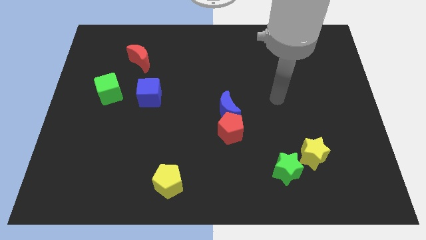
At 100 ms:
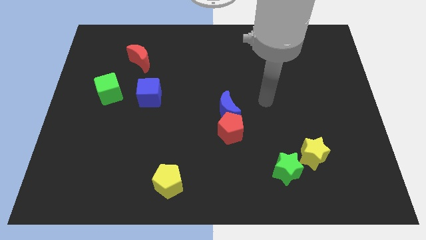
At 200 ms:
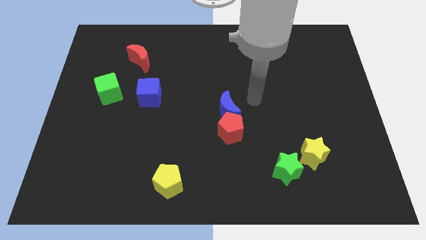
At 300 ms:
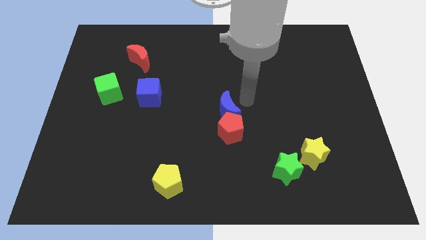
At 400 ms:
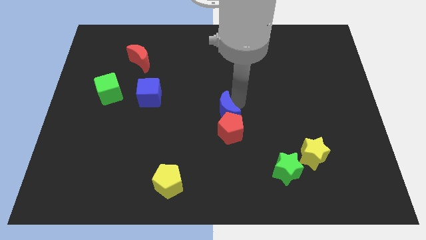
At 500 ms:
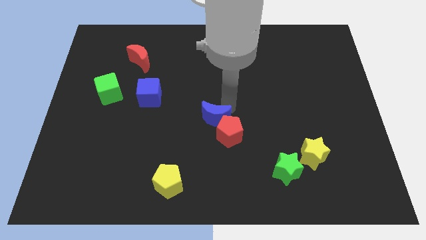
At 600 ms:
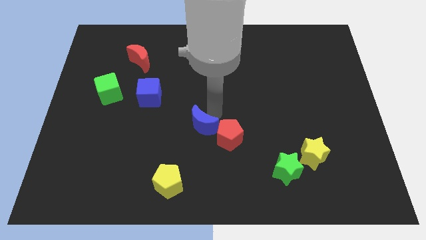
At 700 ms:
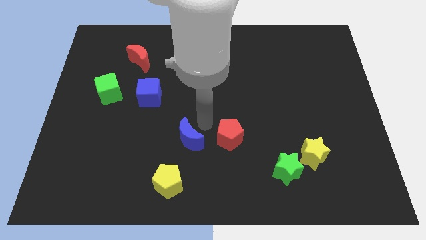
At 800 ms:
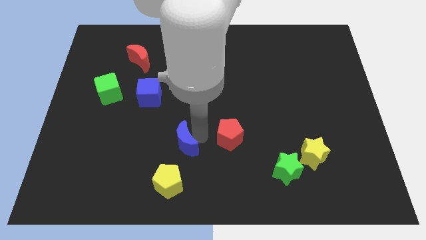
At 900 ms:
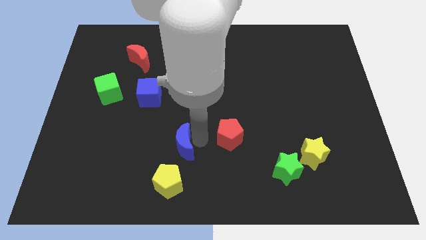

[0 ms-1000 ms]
pull the red pentagon apart from the blue moon

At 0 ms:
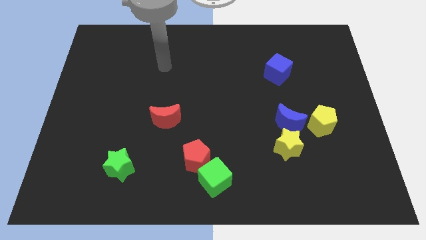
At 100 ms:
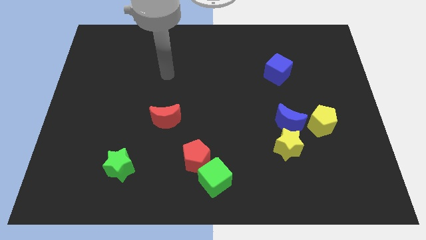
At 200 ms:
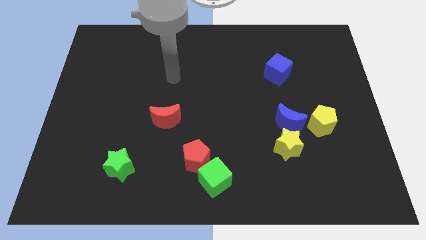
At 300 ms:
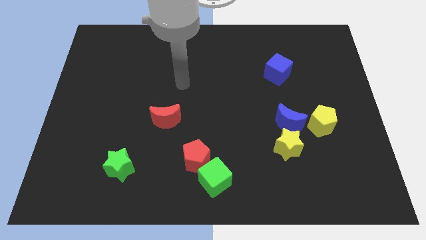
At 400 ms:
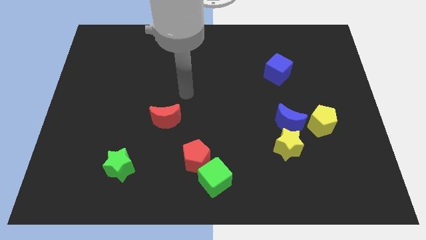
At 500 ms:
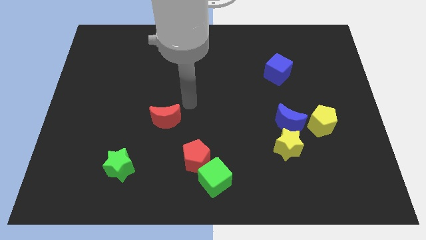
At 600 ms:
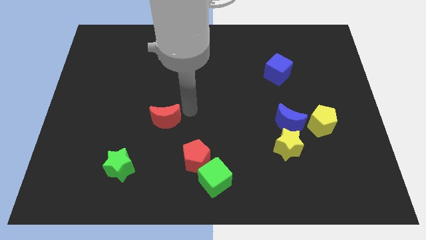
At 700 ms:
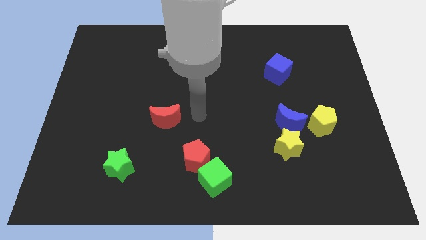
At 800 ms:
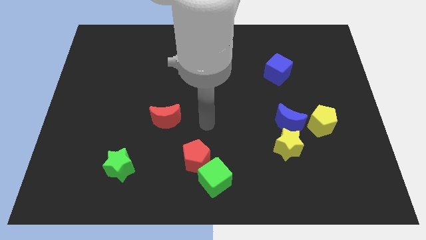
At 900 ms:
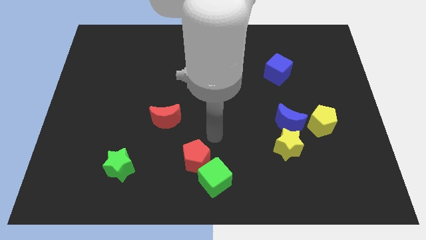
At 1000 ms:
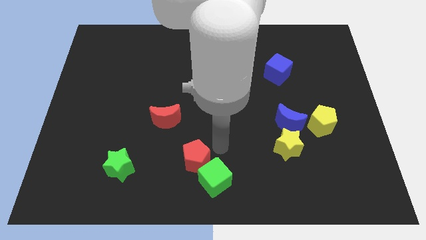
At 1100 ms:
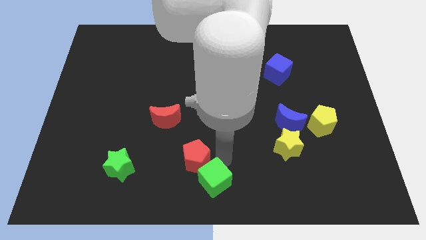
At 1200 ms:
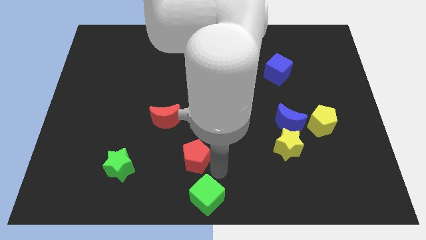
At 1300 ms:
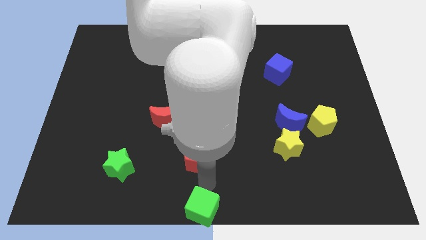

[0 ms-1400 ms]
move the red pentagon away from the green cube

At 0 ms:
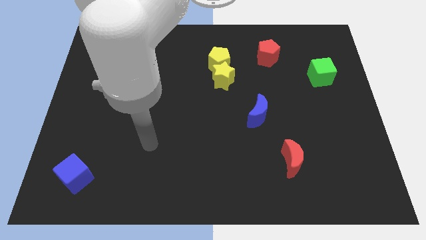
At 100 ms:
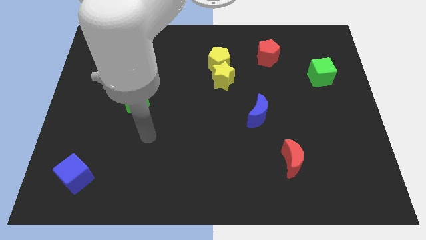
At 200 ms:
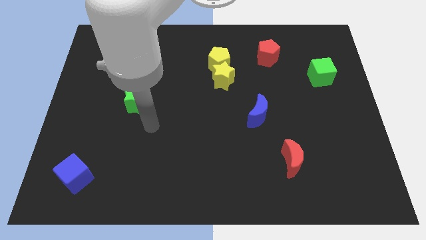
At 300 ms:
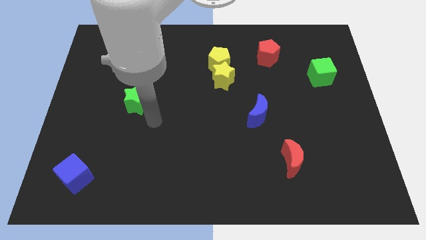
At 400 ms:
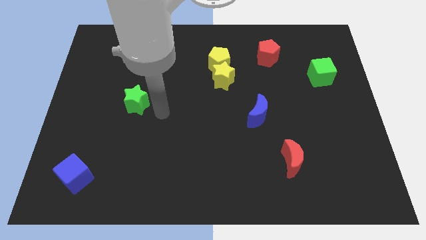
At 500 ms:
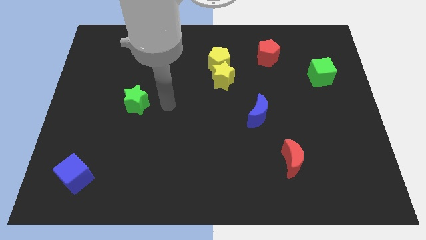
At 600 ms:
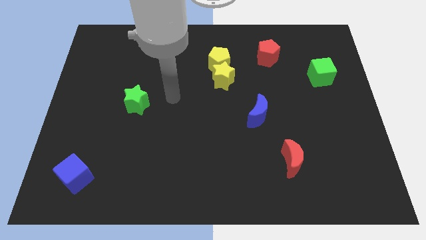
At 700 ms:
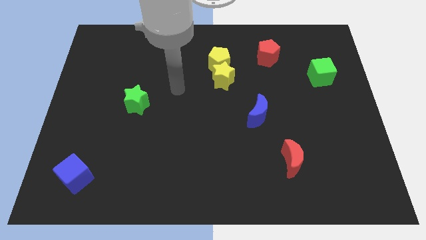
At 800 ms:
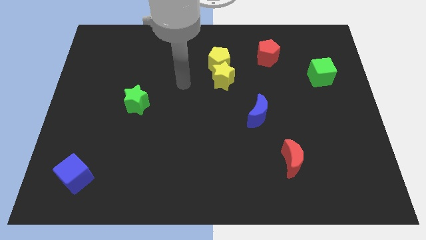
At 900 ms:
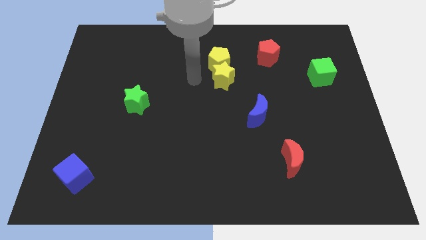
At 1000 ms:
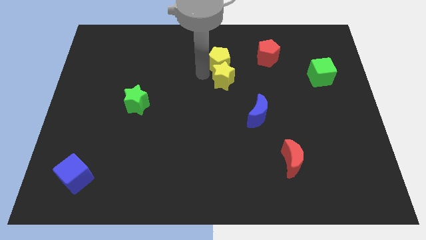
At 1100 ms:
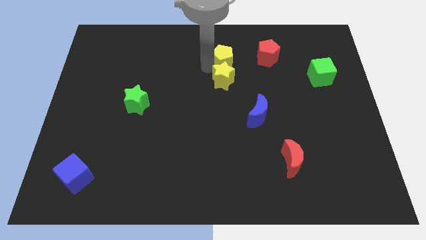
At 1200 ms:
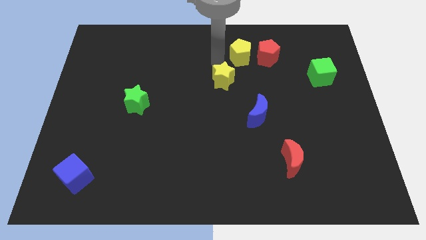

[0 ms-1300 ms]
pull the yellow star apart from the yellow pentagon

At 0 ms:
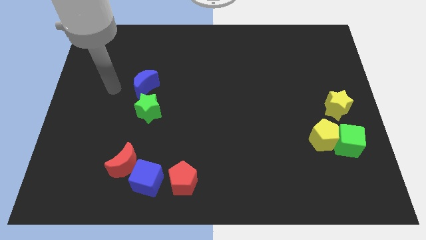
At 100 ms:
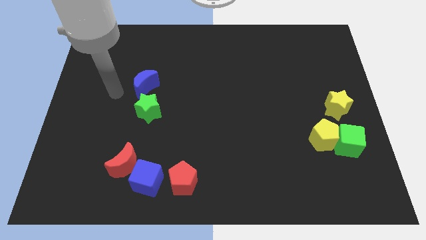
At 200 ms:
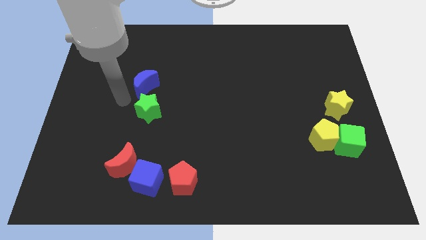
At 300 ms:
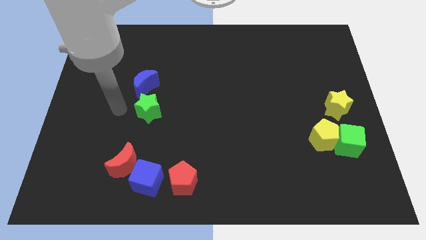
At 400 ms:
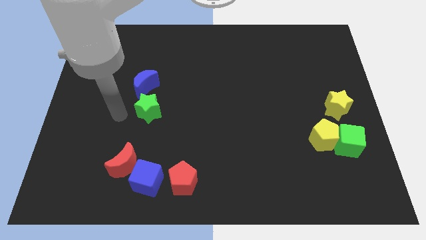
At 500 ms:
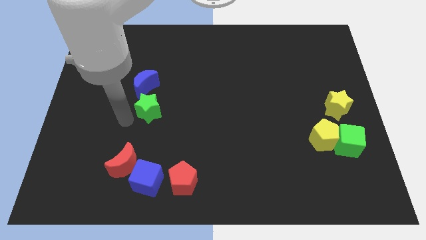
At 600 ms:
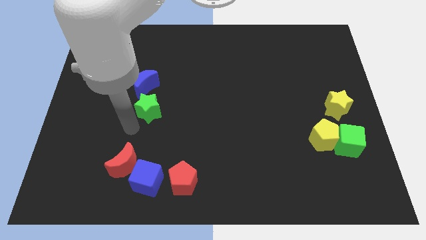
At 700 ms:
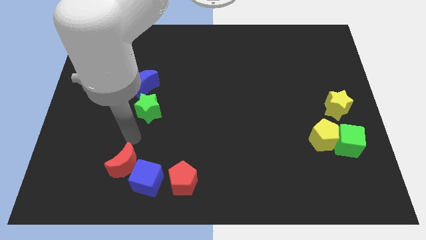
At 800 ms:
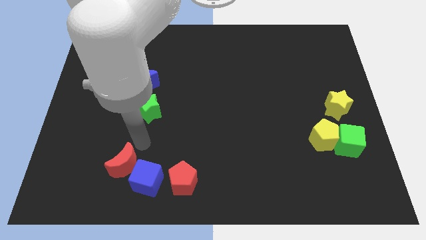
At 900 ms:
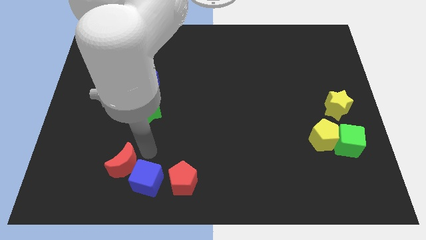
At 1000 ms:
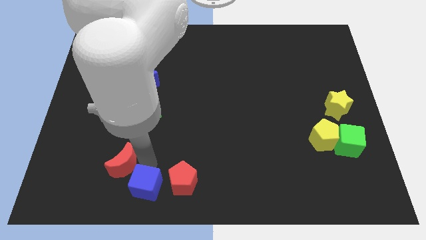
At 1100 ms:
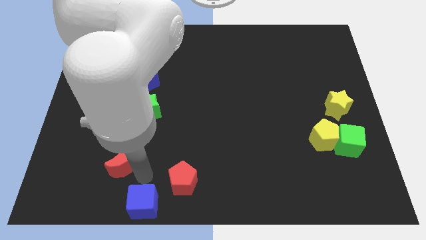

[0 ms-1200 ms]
separate the red moon from the blue cube

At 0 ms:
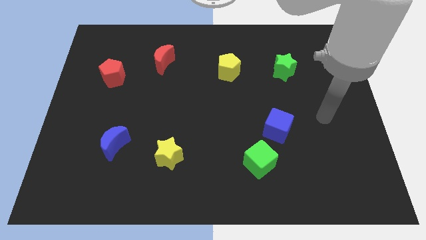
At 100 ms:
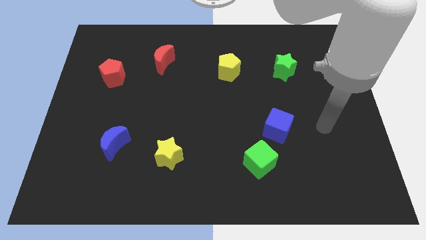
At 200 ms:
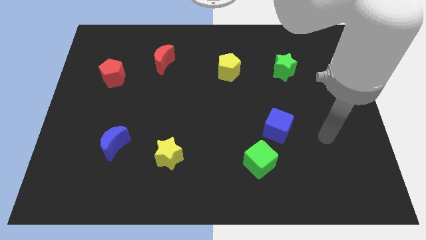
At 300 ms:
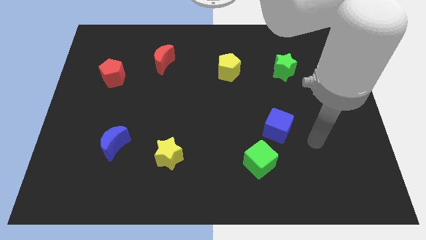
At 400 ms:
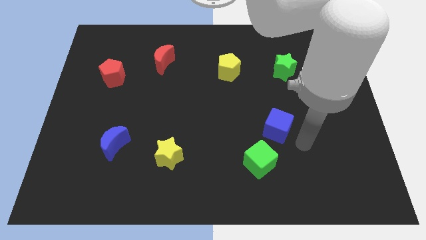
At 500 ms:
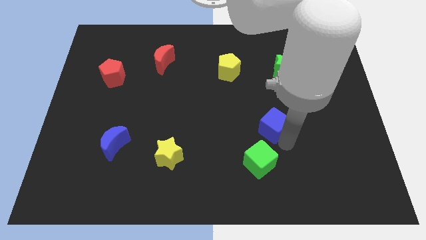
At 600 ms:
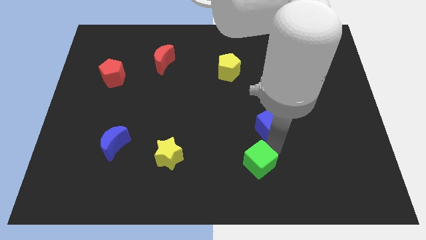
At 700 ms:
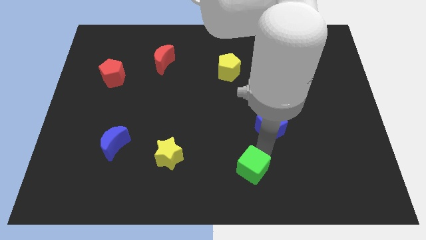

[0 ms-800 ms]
pull the blue cube apart from the green cube

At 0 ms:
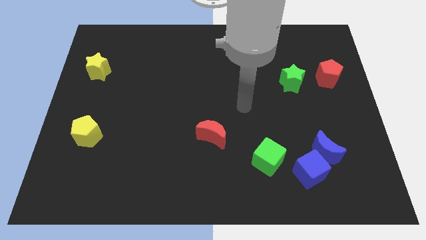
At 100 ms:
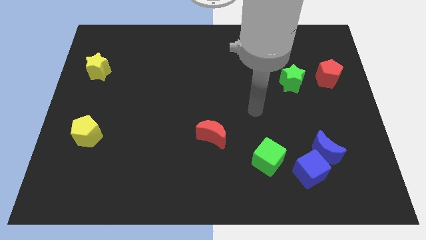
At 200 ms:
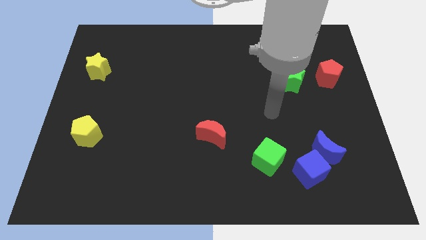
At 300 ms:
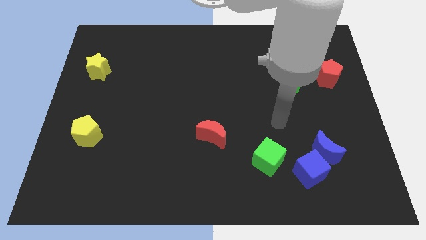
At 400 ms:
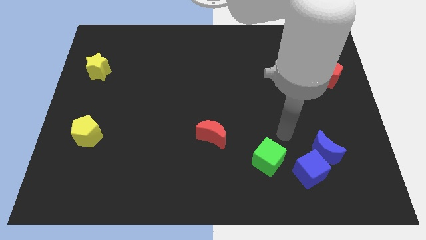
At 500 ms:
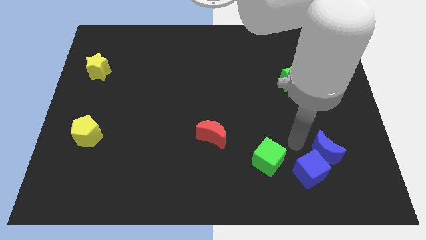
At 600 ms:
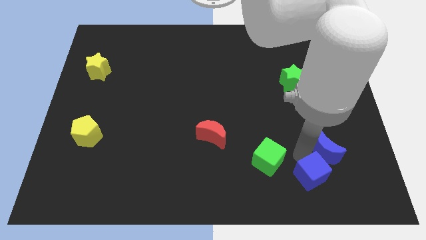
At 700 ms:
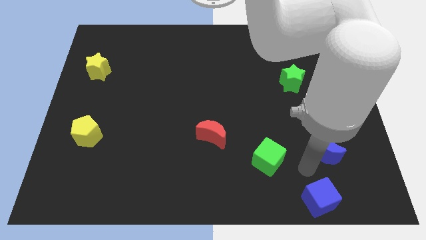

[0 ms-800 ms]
pull the blue moon apart from the blue cube

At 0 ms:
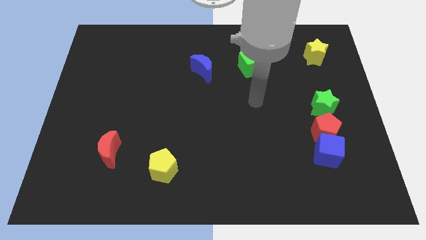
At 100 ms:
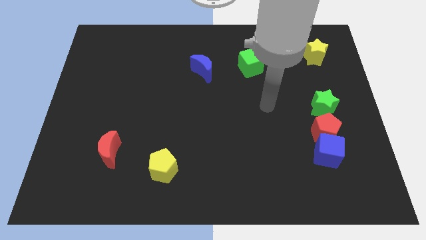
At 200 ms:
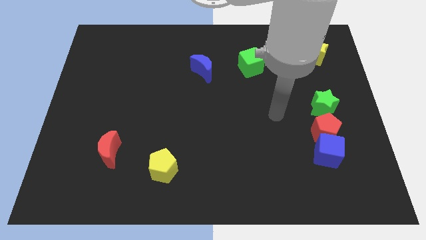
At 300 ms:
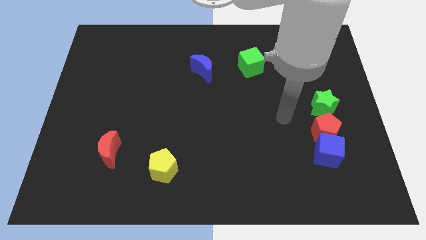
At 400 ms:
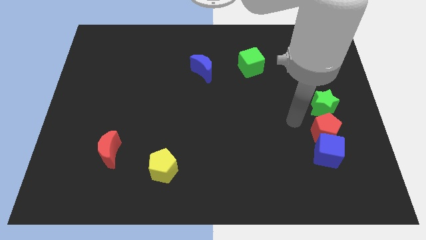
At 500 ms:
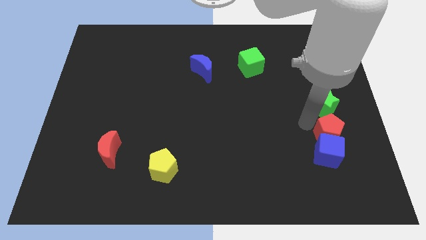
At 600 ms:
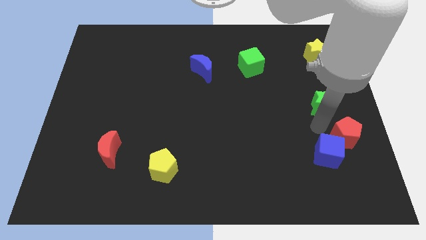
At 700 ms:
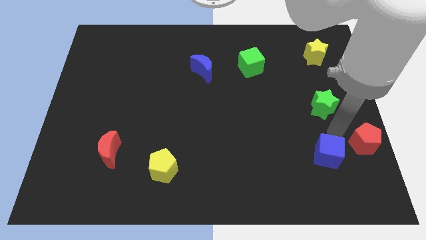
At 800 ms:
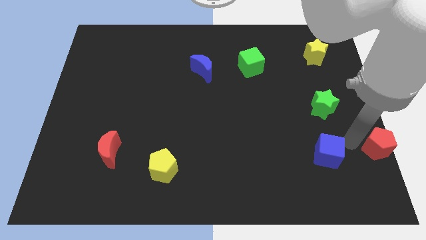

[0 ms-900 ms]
pull the blue cube apart from the red pentagon

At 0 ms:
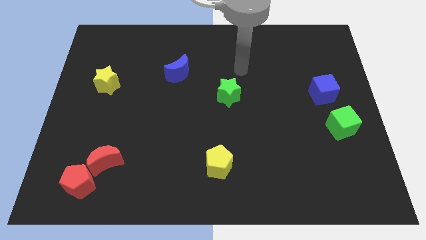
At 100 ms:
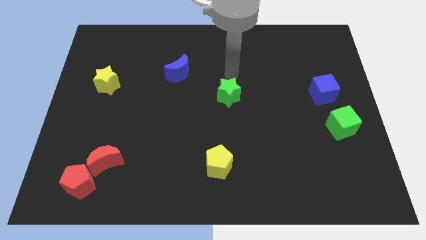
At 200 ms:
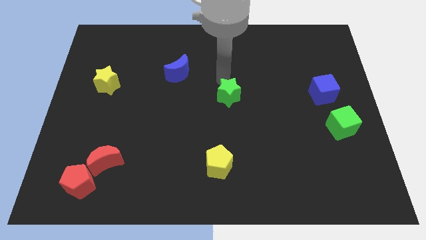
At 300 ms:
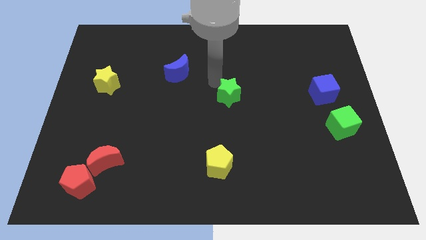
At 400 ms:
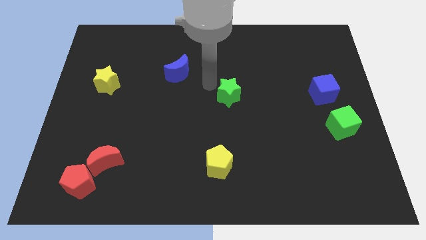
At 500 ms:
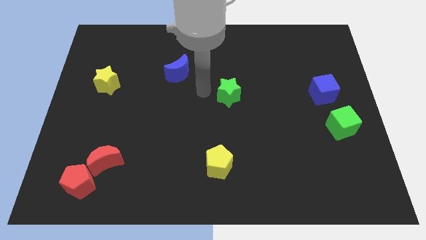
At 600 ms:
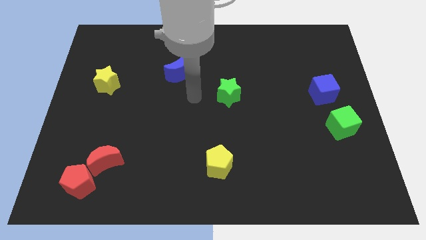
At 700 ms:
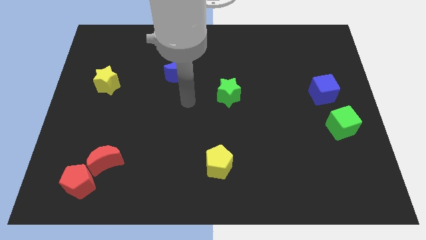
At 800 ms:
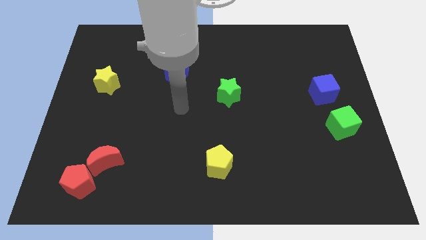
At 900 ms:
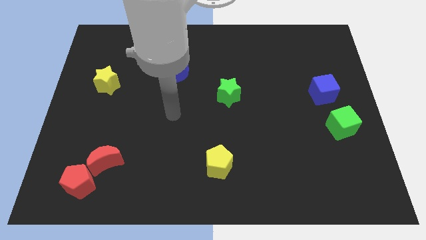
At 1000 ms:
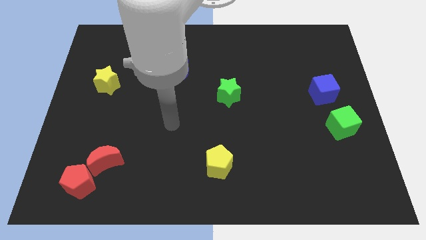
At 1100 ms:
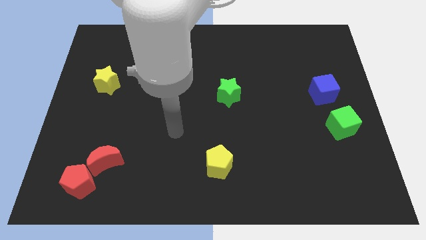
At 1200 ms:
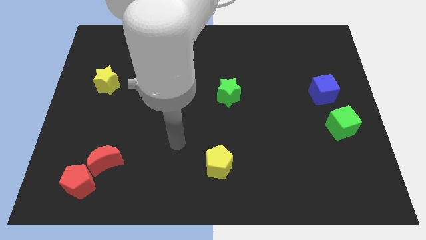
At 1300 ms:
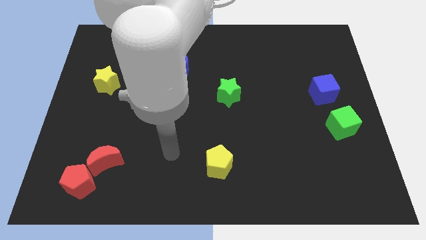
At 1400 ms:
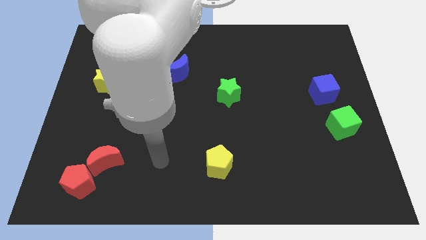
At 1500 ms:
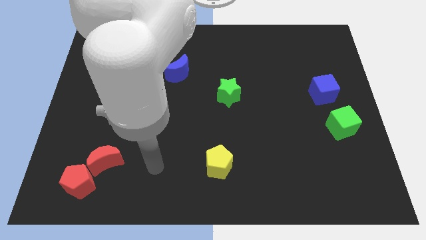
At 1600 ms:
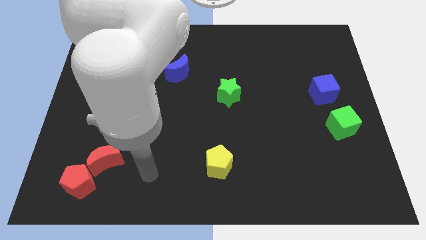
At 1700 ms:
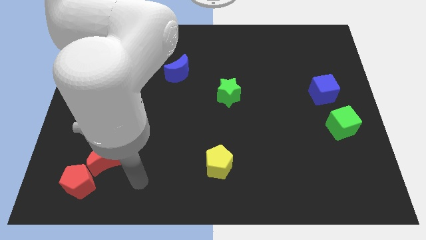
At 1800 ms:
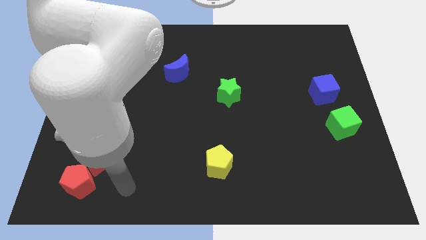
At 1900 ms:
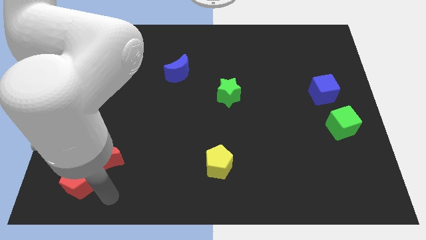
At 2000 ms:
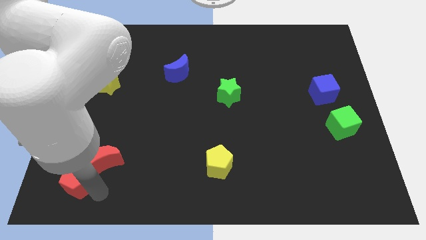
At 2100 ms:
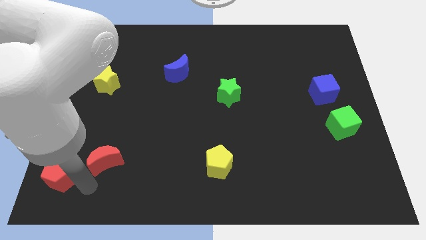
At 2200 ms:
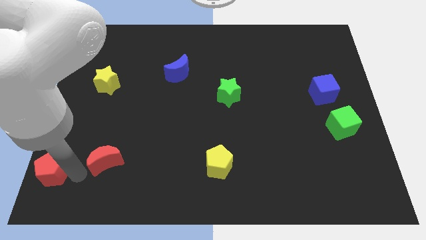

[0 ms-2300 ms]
move the red moon away from the red pentagon
